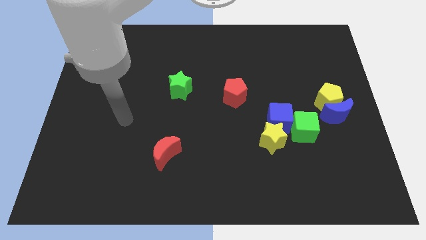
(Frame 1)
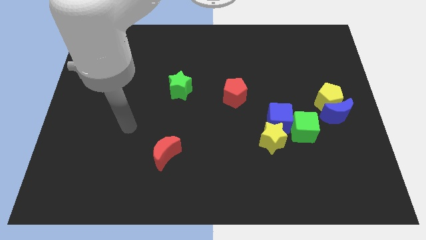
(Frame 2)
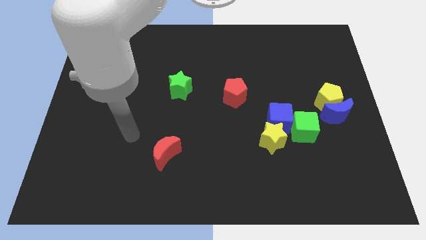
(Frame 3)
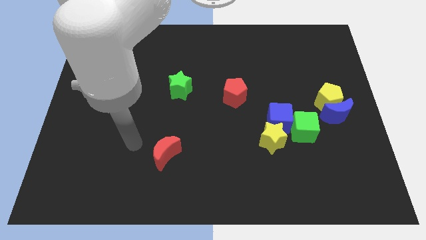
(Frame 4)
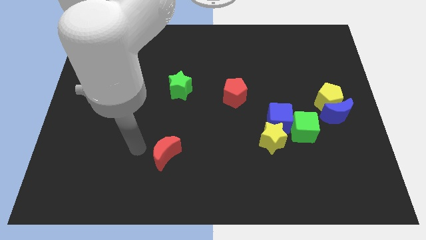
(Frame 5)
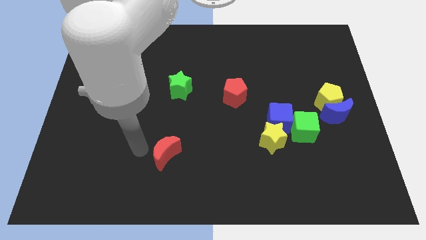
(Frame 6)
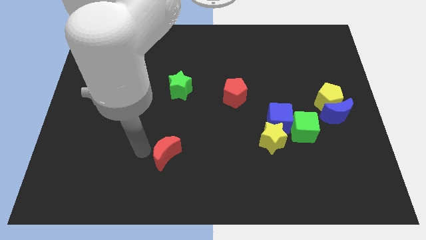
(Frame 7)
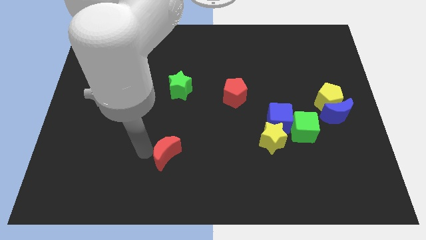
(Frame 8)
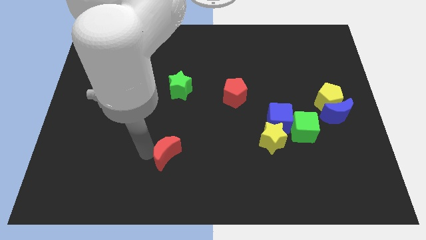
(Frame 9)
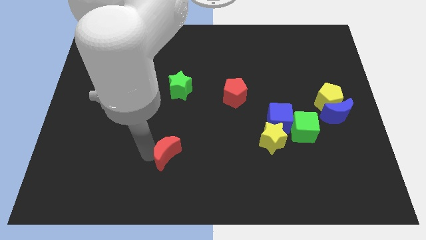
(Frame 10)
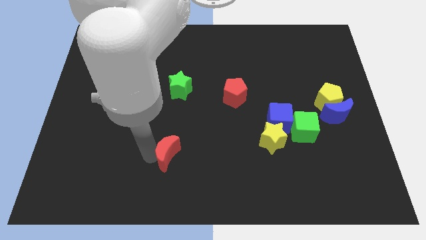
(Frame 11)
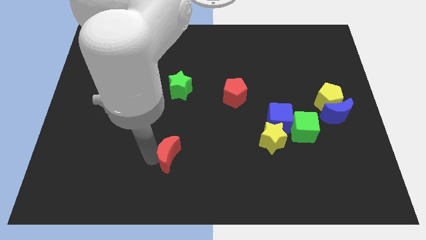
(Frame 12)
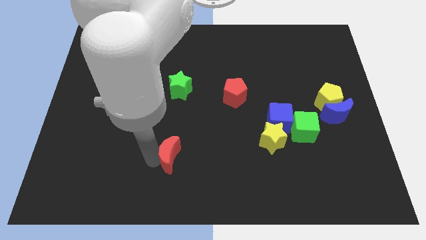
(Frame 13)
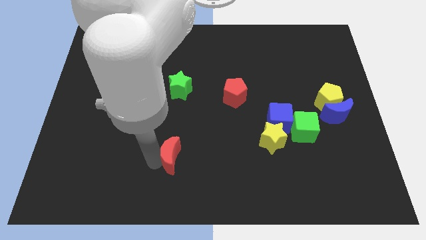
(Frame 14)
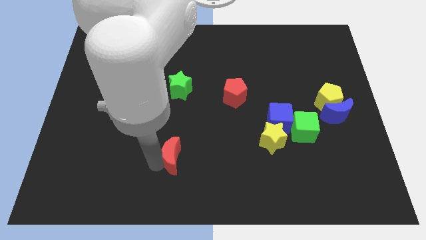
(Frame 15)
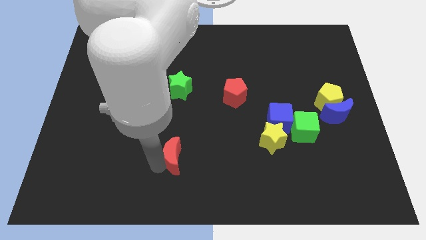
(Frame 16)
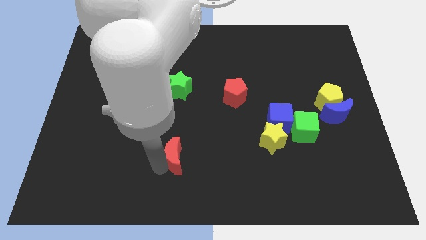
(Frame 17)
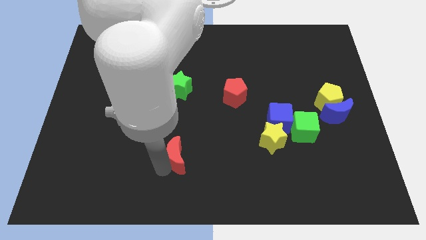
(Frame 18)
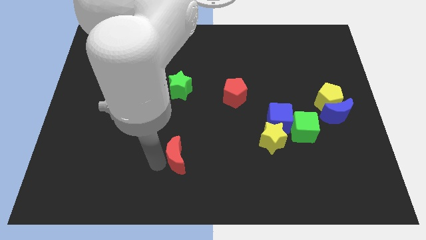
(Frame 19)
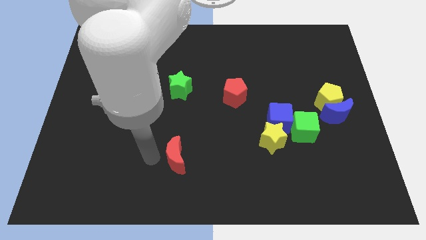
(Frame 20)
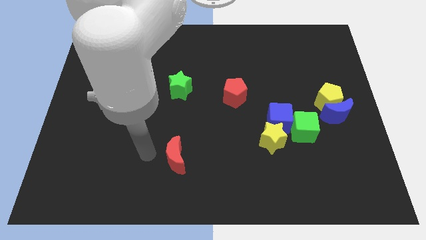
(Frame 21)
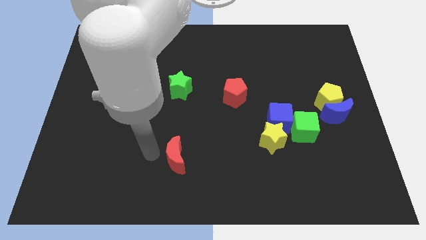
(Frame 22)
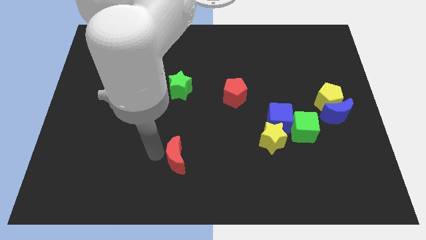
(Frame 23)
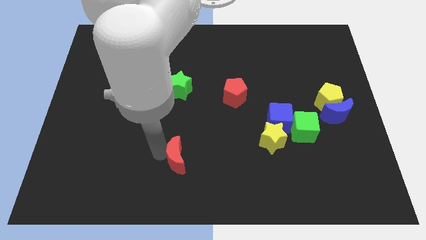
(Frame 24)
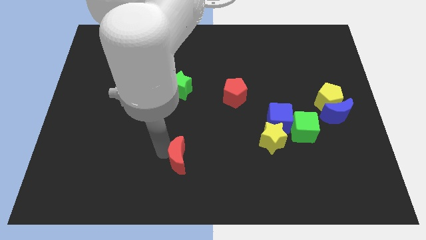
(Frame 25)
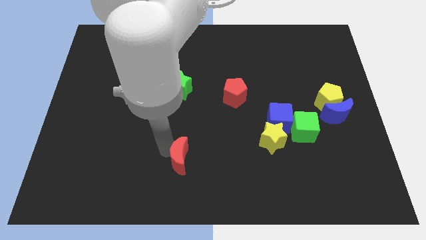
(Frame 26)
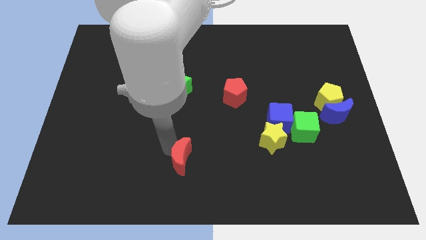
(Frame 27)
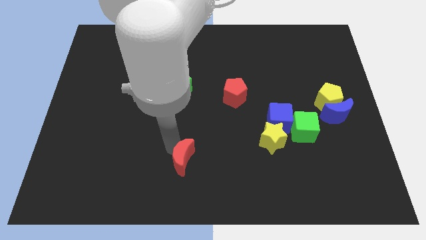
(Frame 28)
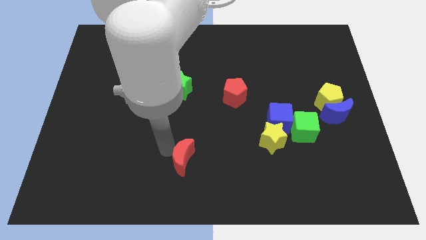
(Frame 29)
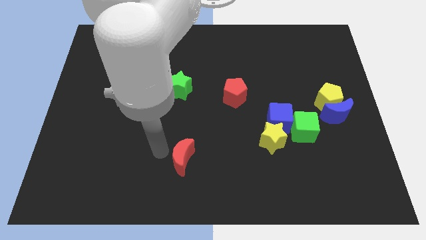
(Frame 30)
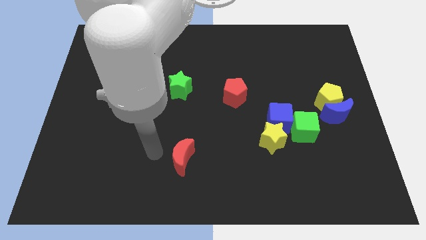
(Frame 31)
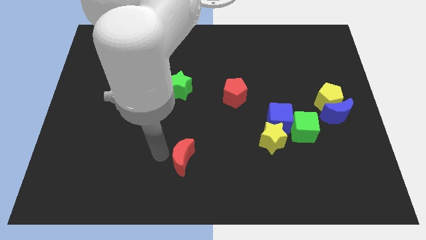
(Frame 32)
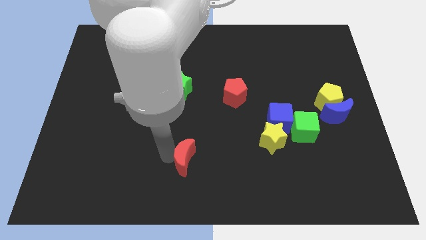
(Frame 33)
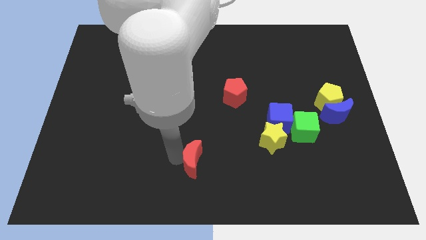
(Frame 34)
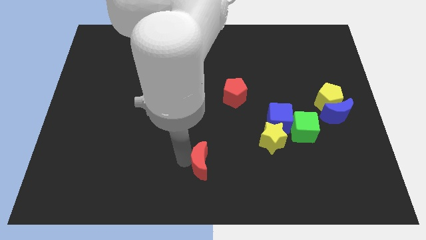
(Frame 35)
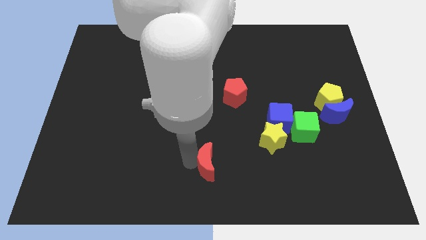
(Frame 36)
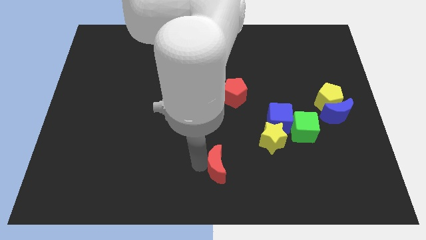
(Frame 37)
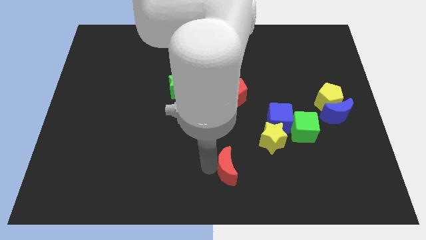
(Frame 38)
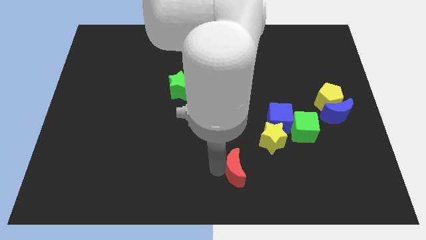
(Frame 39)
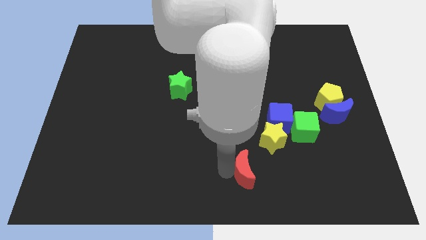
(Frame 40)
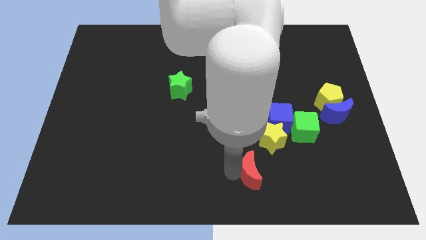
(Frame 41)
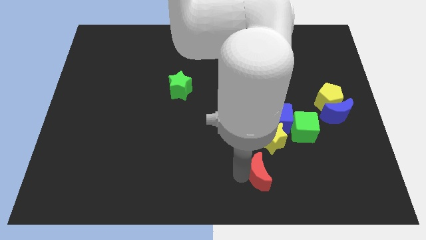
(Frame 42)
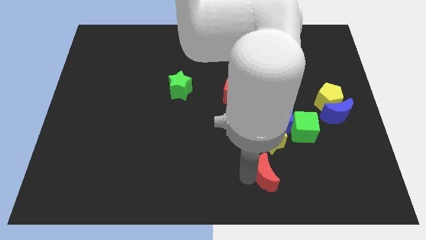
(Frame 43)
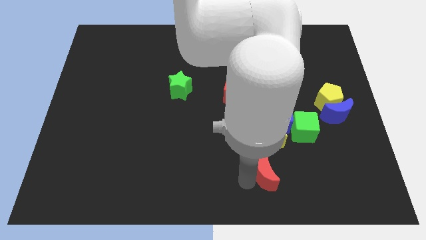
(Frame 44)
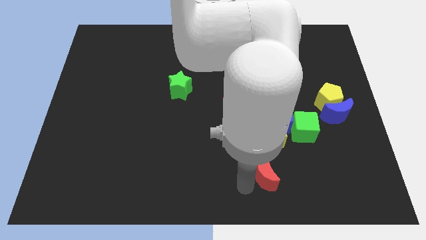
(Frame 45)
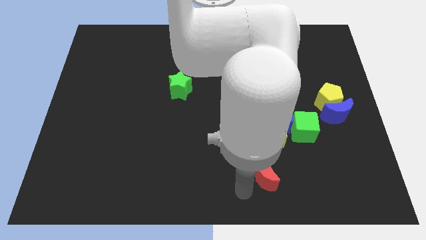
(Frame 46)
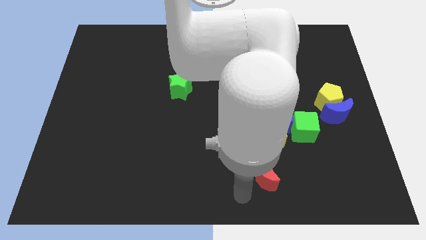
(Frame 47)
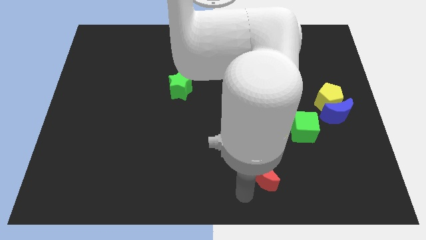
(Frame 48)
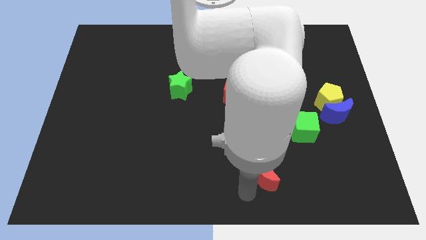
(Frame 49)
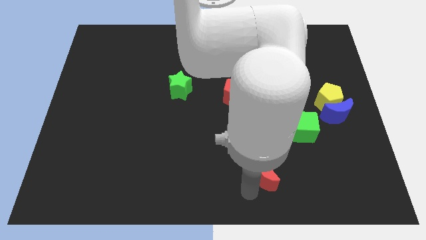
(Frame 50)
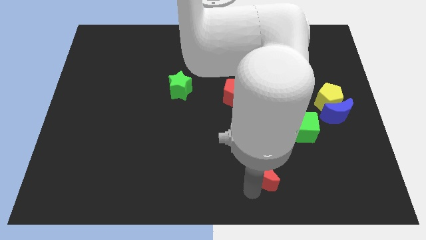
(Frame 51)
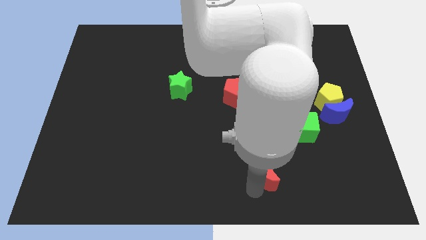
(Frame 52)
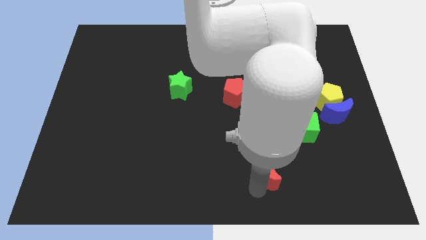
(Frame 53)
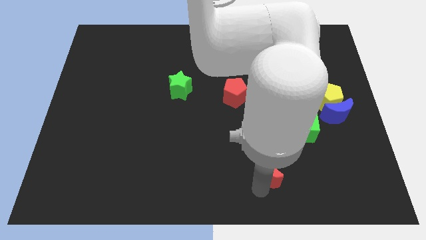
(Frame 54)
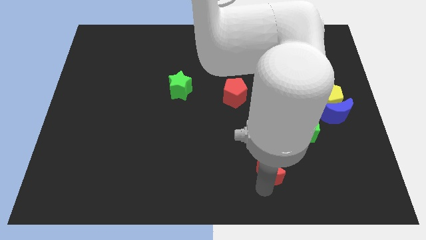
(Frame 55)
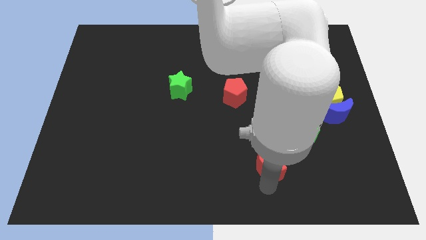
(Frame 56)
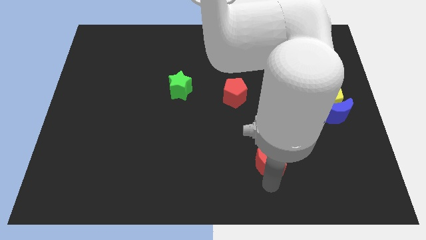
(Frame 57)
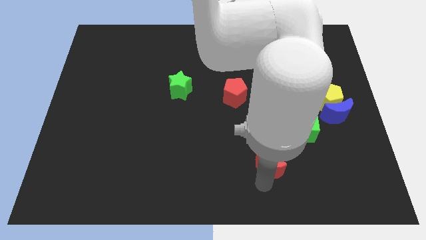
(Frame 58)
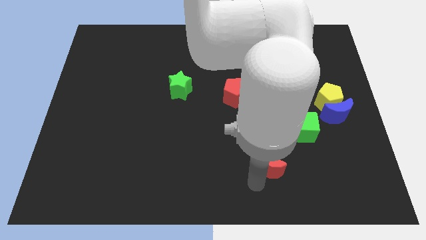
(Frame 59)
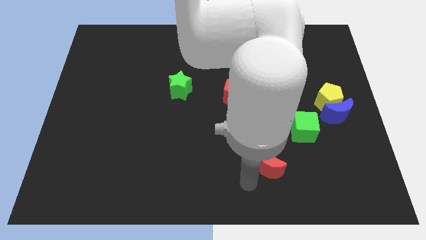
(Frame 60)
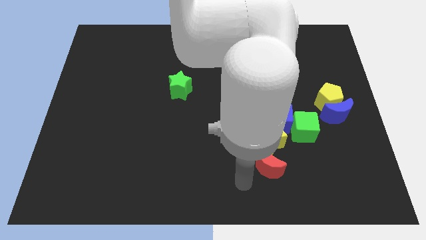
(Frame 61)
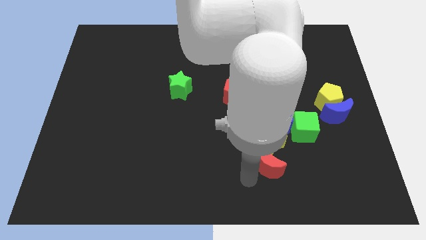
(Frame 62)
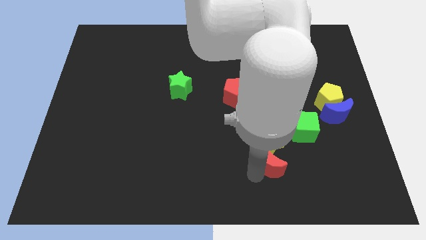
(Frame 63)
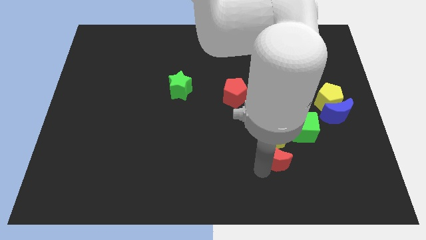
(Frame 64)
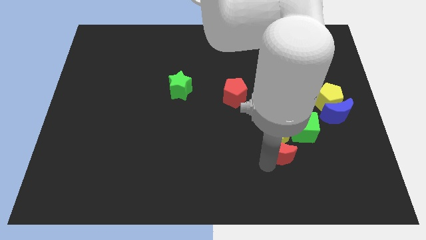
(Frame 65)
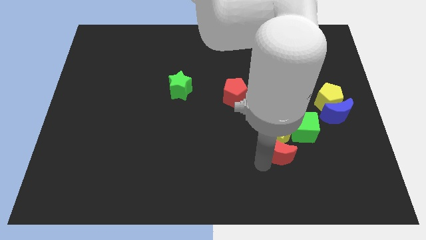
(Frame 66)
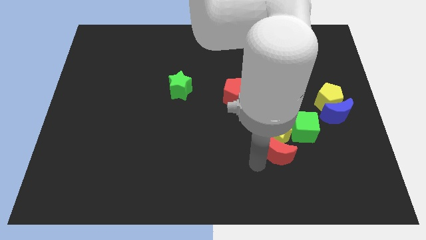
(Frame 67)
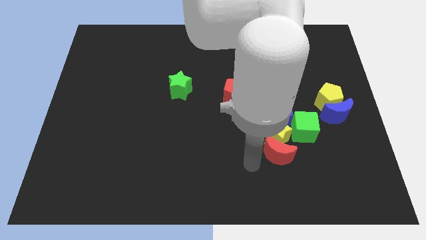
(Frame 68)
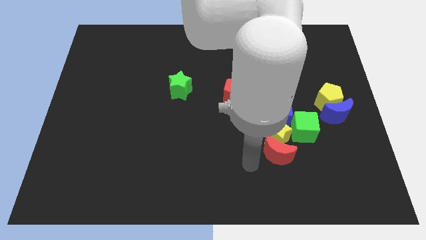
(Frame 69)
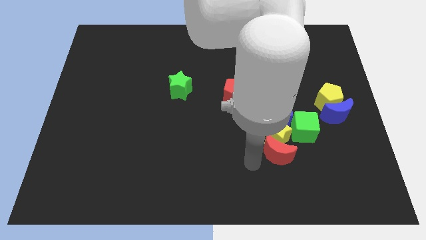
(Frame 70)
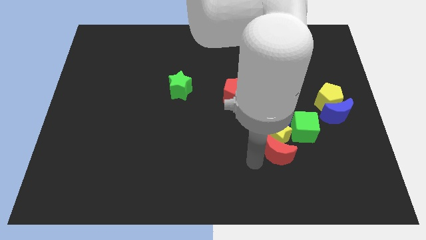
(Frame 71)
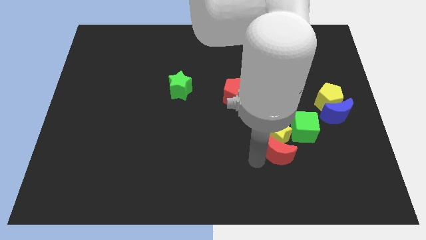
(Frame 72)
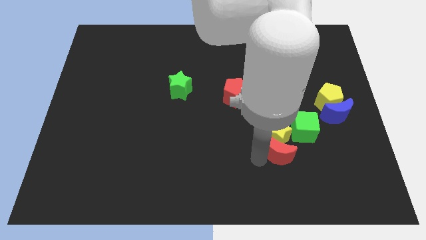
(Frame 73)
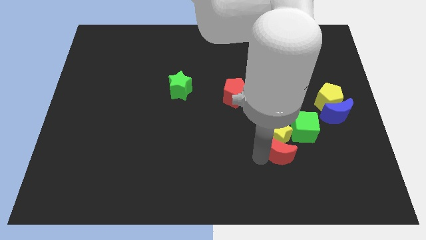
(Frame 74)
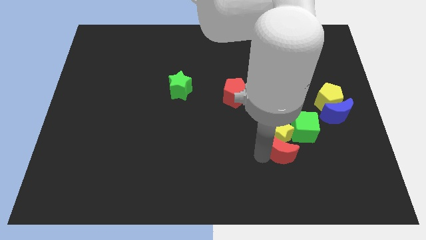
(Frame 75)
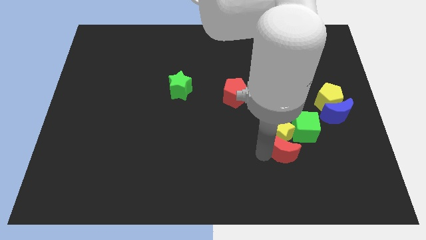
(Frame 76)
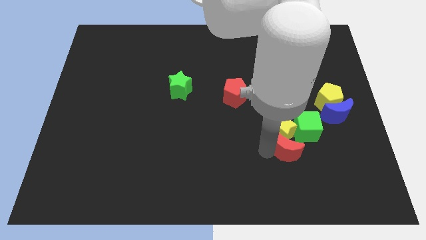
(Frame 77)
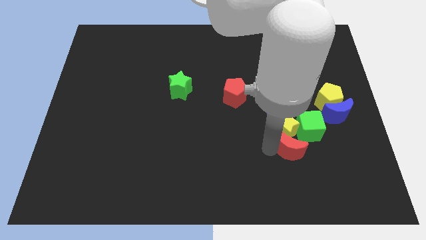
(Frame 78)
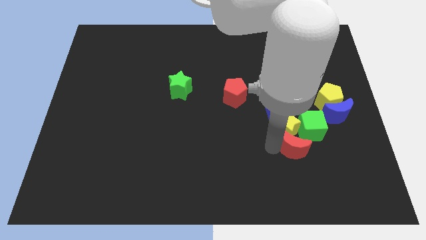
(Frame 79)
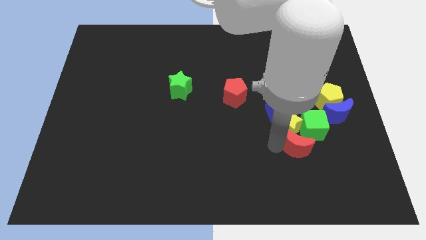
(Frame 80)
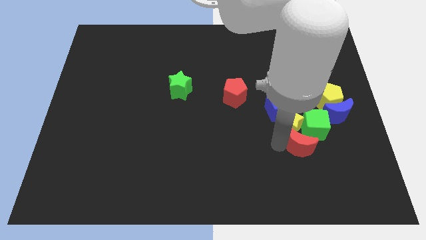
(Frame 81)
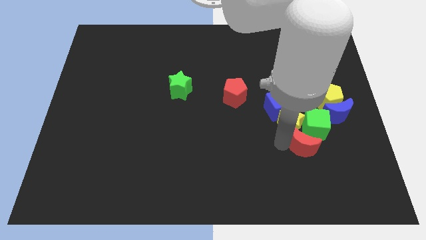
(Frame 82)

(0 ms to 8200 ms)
move the red moon to the green cube
